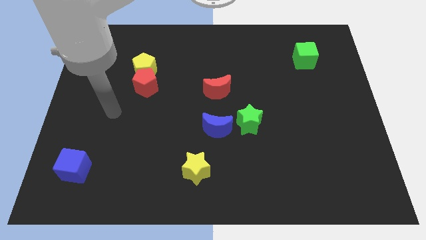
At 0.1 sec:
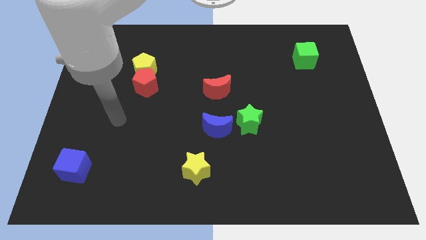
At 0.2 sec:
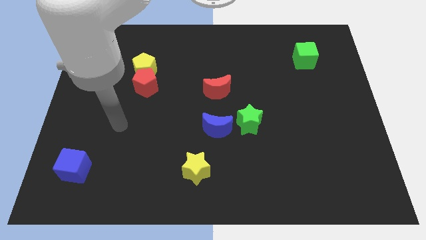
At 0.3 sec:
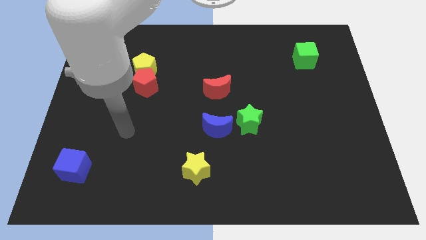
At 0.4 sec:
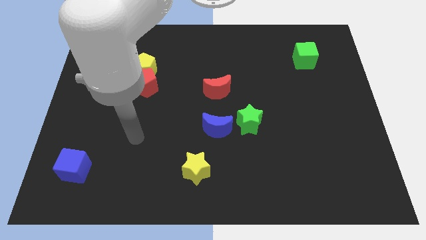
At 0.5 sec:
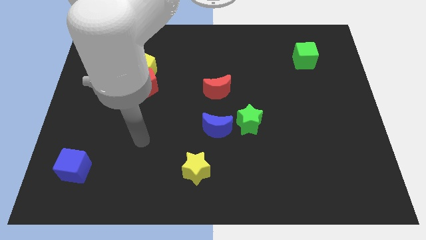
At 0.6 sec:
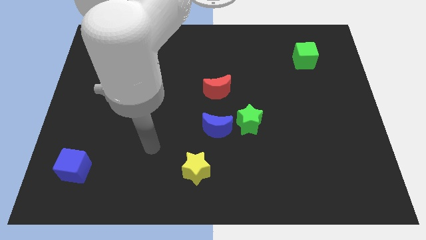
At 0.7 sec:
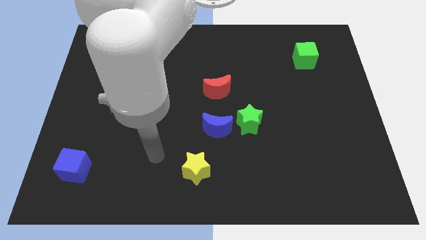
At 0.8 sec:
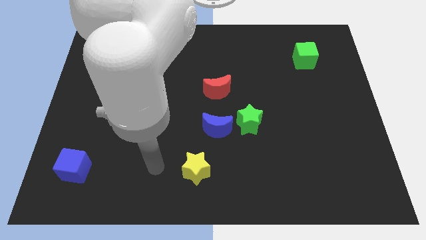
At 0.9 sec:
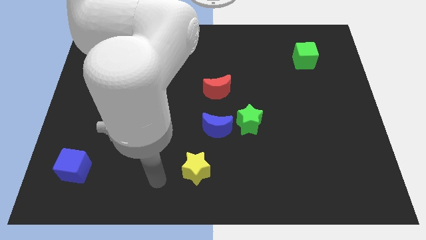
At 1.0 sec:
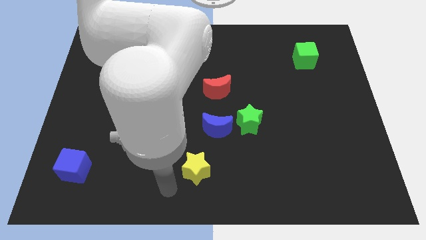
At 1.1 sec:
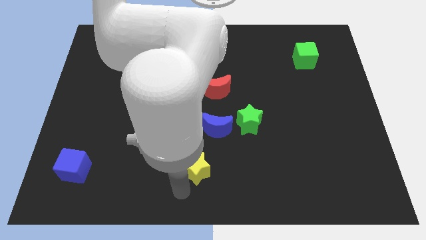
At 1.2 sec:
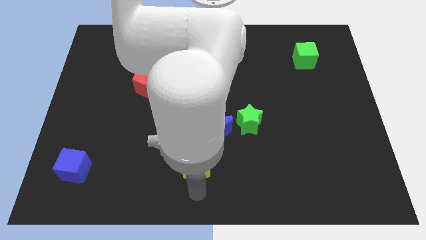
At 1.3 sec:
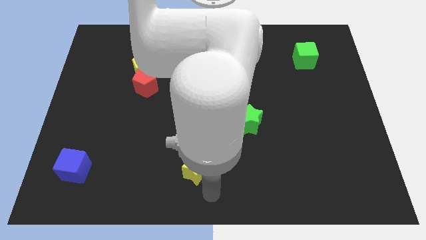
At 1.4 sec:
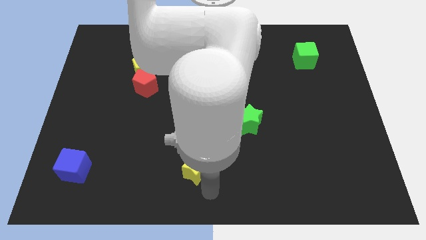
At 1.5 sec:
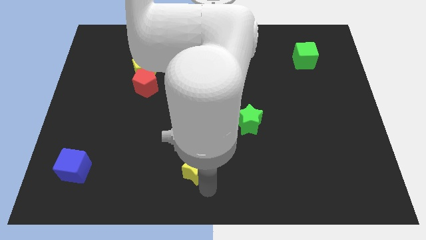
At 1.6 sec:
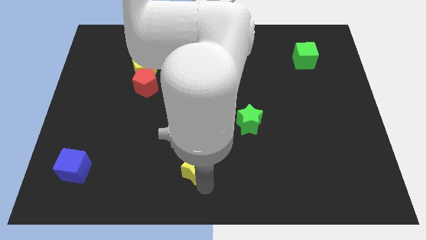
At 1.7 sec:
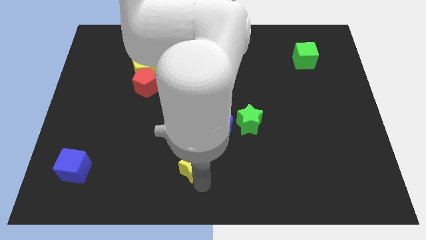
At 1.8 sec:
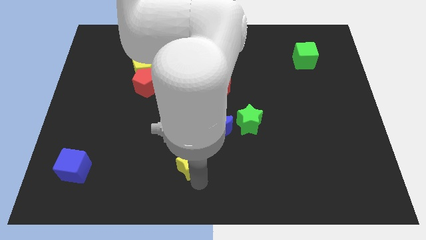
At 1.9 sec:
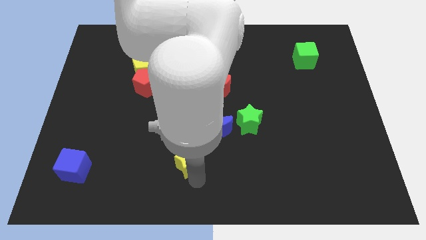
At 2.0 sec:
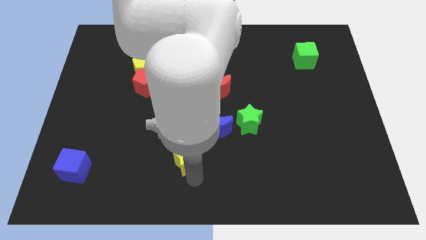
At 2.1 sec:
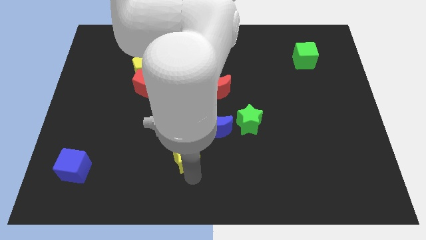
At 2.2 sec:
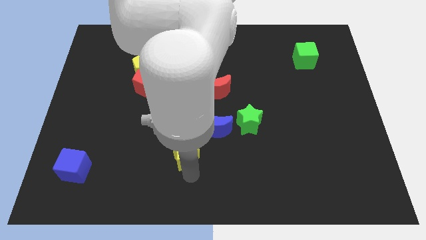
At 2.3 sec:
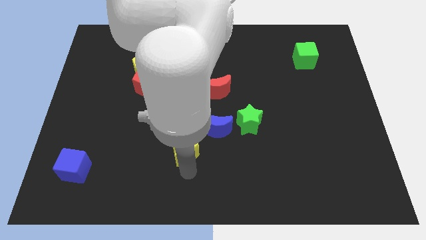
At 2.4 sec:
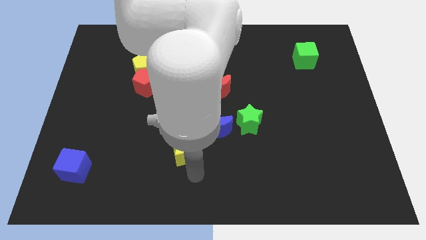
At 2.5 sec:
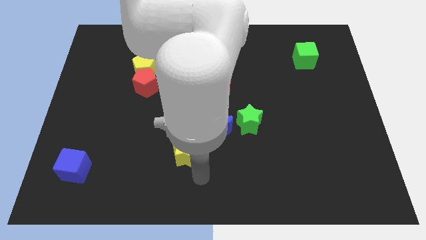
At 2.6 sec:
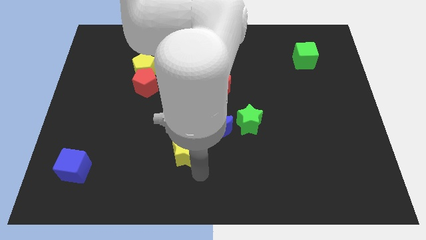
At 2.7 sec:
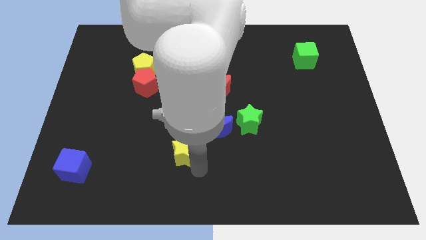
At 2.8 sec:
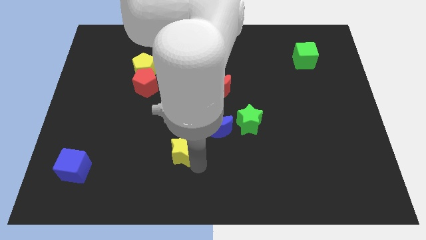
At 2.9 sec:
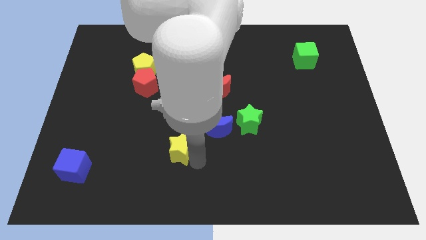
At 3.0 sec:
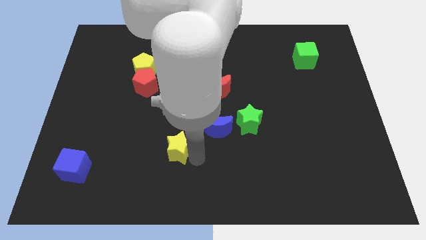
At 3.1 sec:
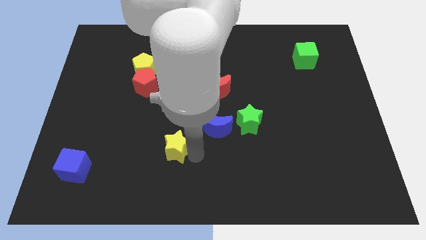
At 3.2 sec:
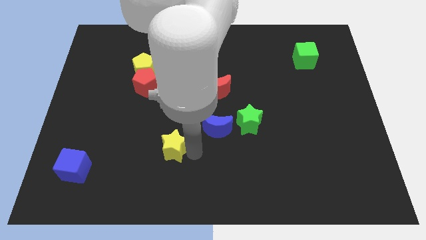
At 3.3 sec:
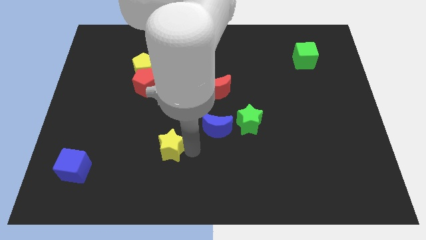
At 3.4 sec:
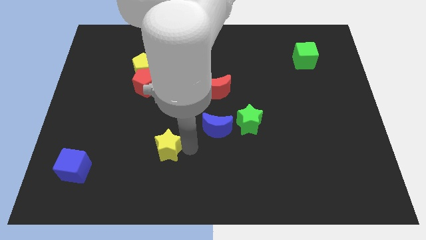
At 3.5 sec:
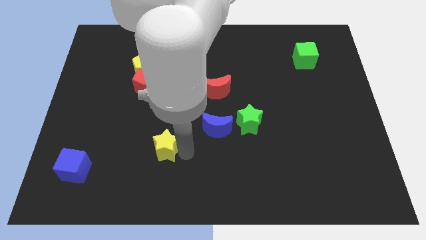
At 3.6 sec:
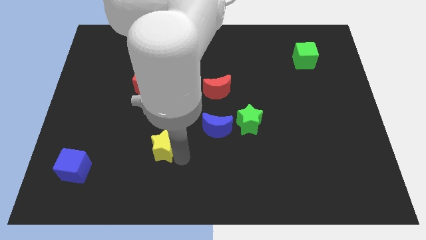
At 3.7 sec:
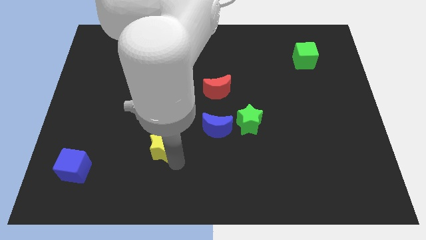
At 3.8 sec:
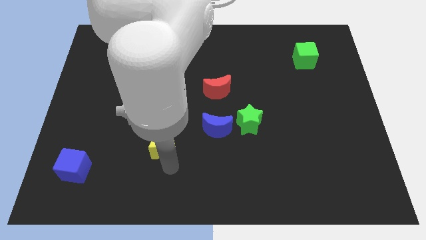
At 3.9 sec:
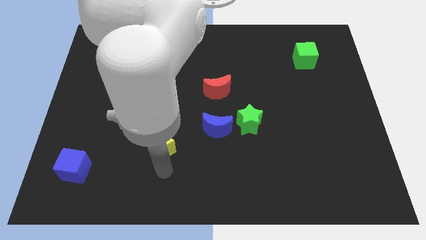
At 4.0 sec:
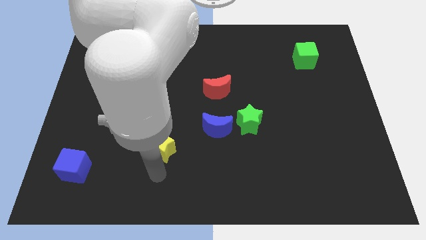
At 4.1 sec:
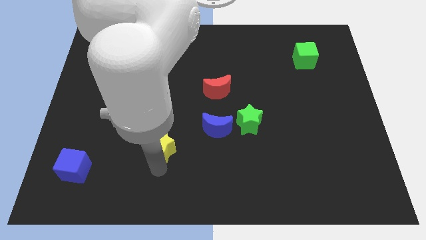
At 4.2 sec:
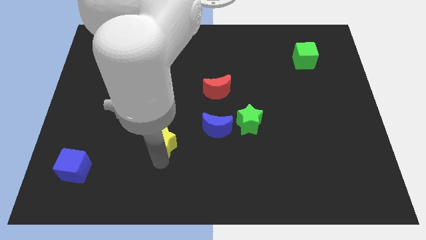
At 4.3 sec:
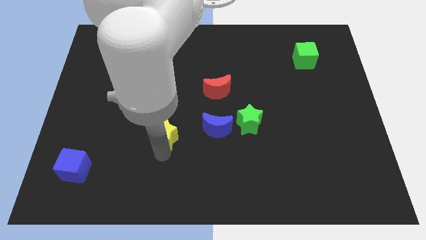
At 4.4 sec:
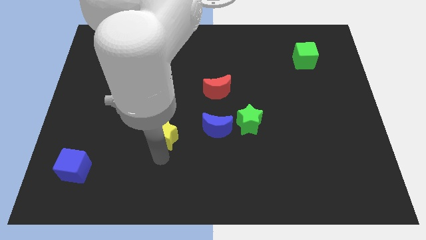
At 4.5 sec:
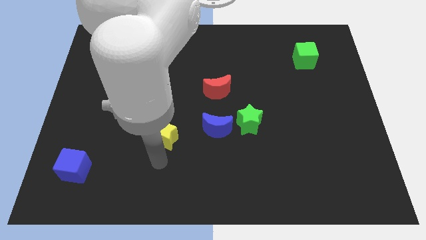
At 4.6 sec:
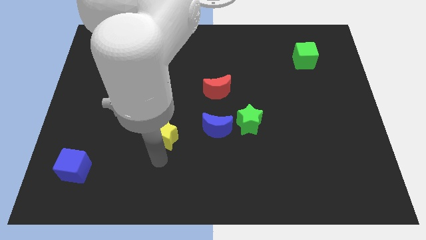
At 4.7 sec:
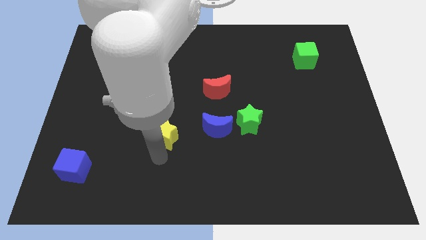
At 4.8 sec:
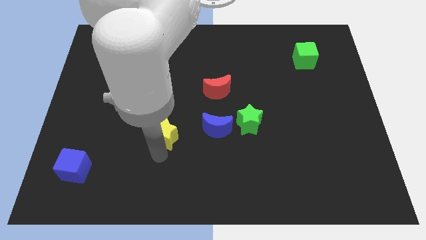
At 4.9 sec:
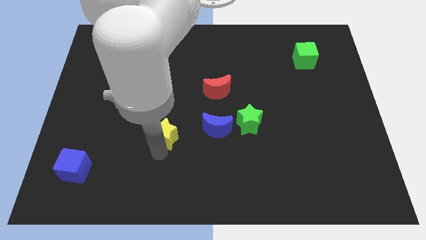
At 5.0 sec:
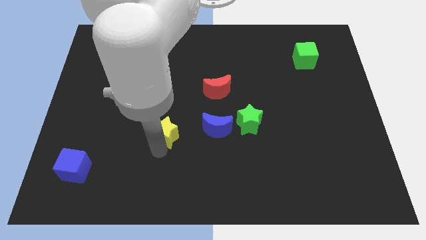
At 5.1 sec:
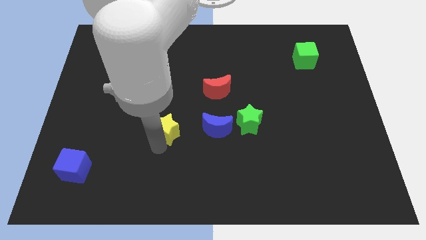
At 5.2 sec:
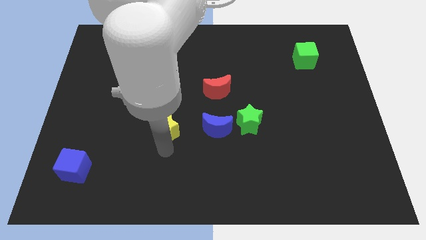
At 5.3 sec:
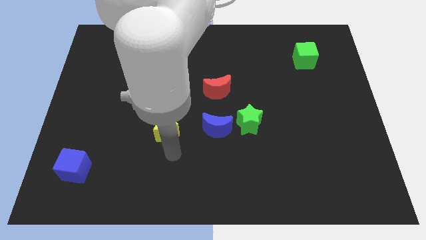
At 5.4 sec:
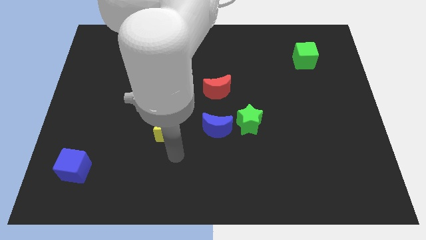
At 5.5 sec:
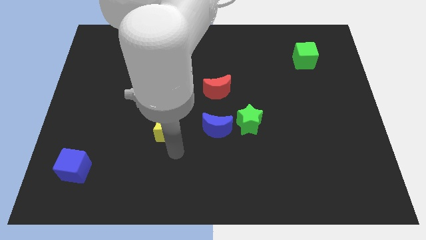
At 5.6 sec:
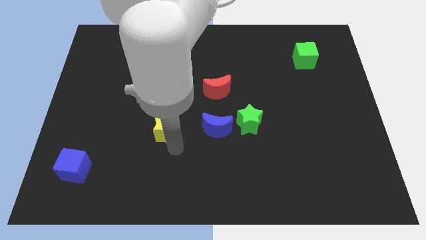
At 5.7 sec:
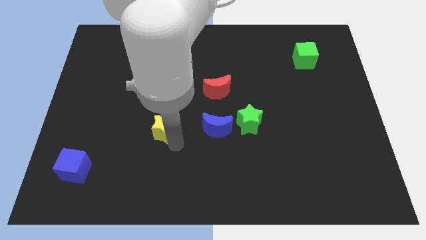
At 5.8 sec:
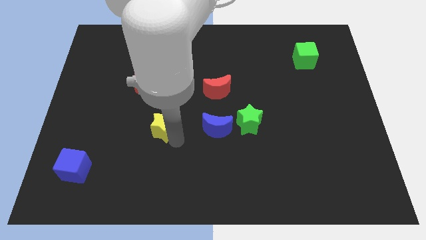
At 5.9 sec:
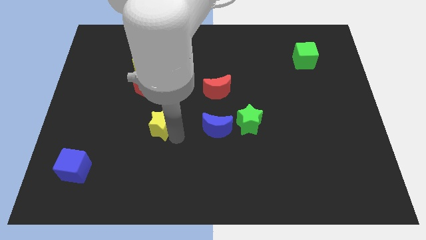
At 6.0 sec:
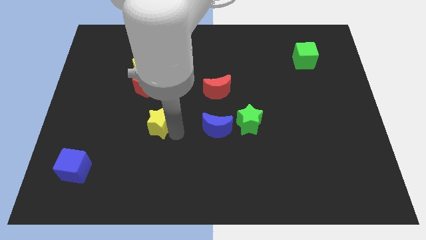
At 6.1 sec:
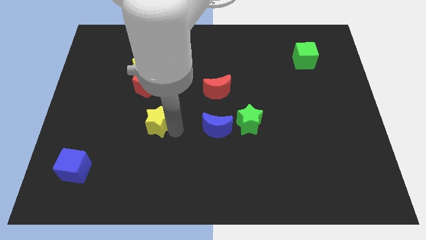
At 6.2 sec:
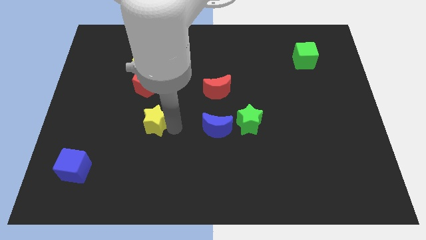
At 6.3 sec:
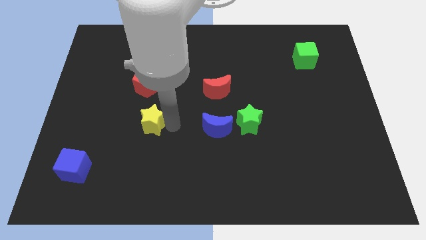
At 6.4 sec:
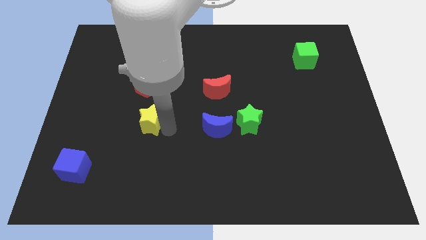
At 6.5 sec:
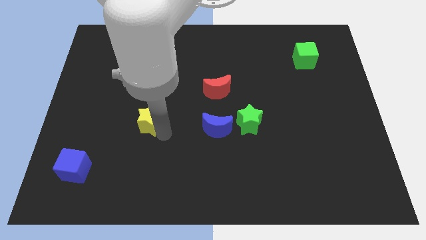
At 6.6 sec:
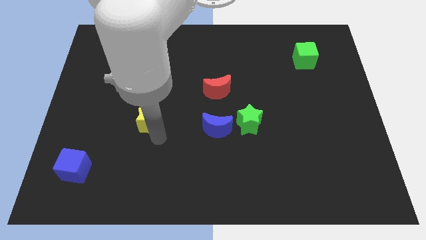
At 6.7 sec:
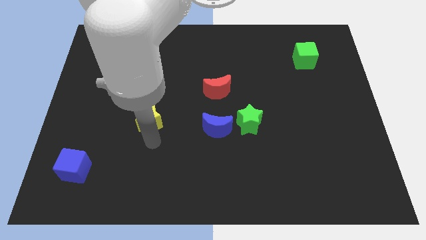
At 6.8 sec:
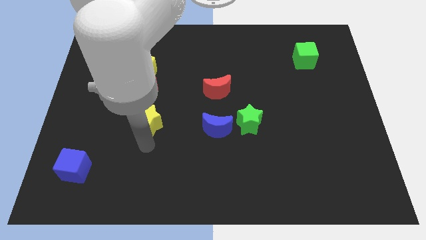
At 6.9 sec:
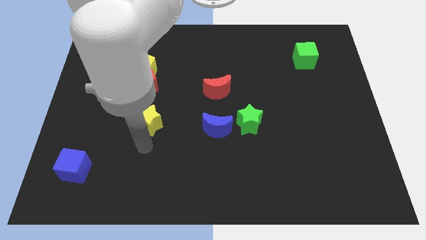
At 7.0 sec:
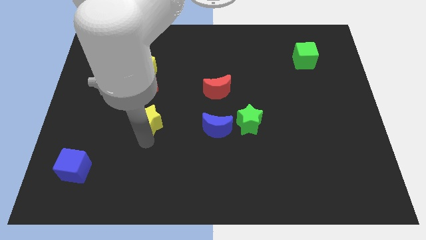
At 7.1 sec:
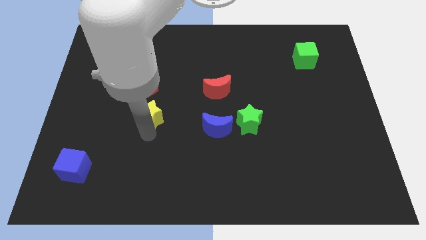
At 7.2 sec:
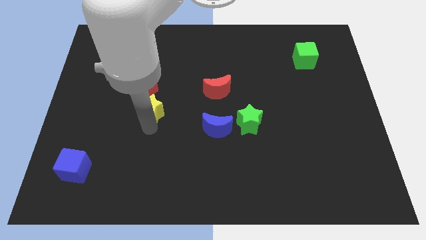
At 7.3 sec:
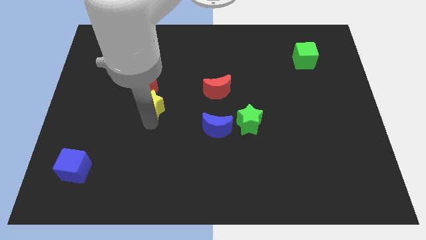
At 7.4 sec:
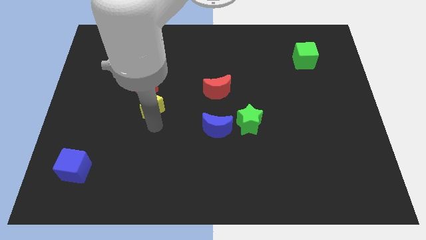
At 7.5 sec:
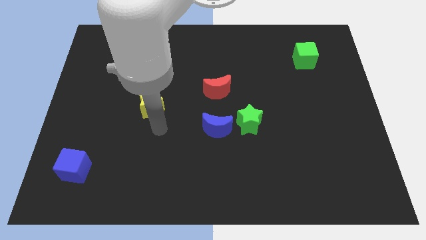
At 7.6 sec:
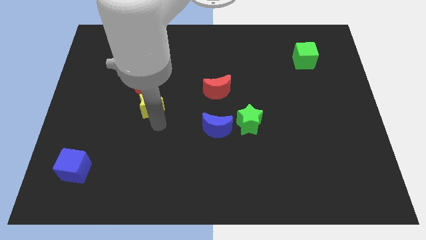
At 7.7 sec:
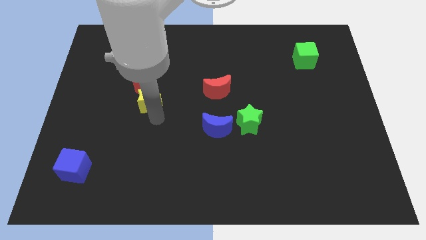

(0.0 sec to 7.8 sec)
move the yellow star next to the red pentagon
